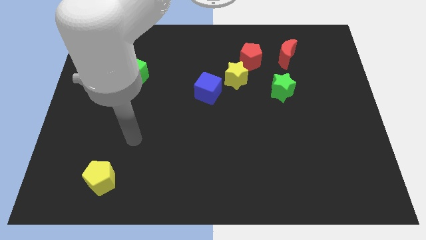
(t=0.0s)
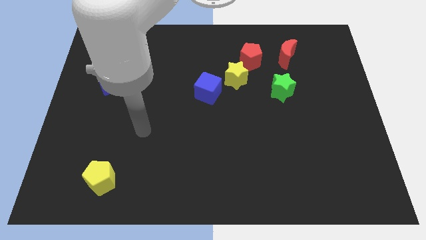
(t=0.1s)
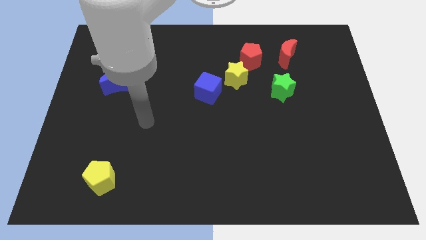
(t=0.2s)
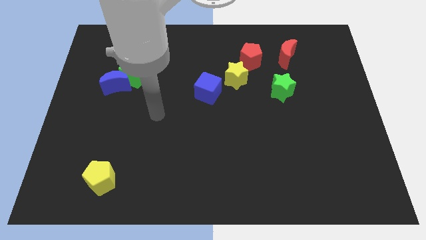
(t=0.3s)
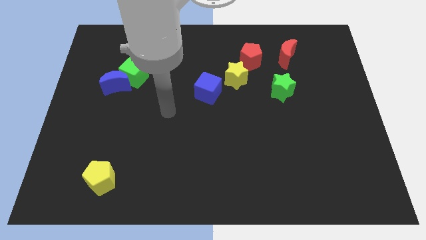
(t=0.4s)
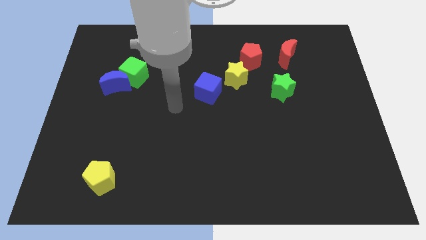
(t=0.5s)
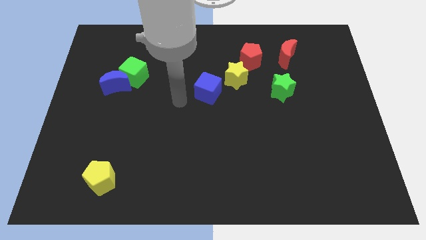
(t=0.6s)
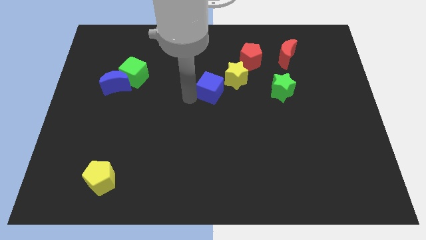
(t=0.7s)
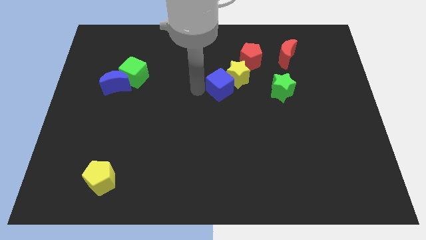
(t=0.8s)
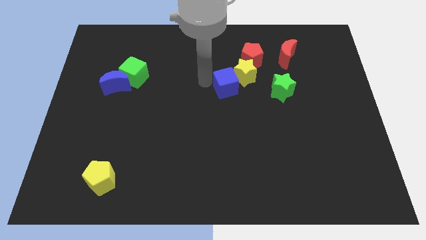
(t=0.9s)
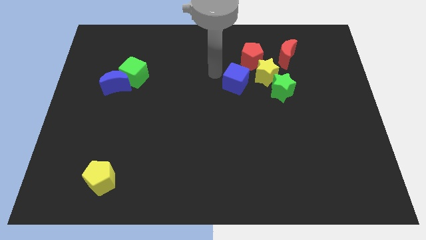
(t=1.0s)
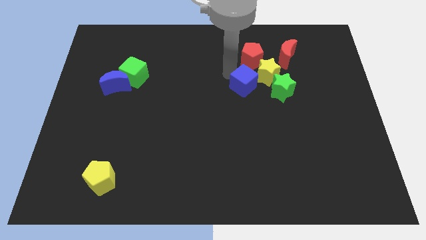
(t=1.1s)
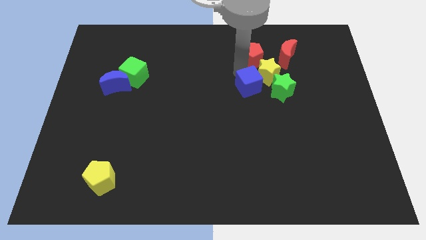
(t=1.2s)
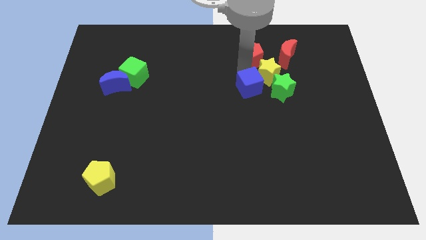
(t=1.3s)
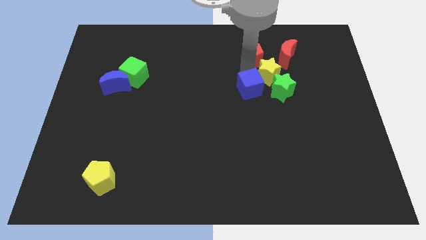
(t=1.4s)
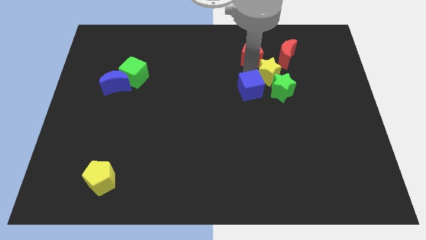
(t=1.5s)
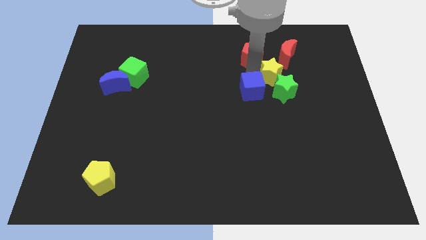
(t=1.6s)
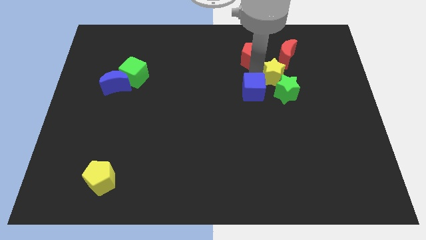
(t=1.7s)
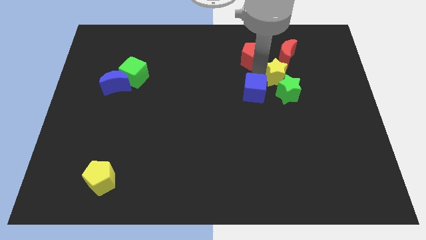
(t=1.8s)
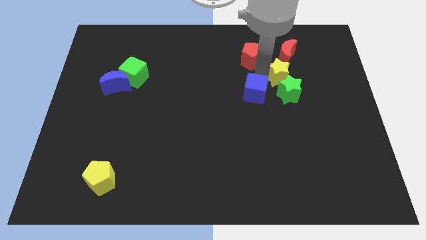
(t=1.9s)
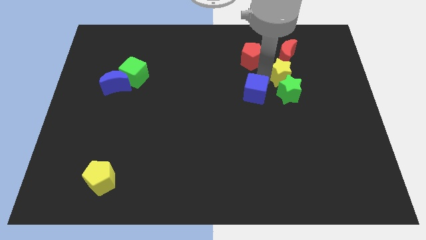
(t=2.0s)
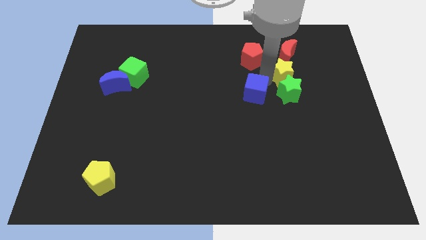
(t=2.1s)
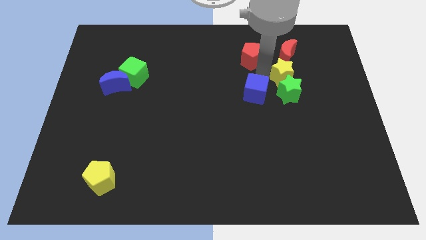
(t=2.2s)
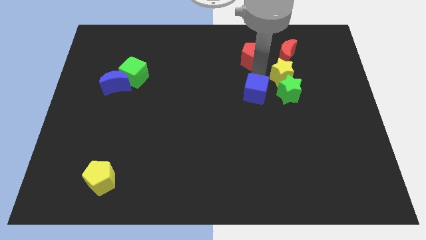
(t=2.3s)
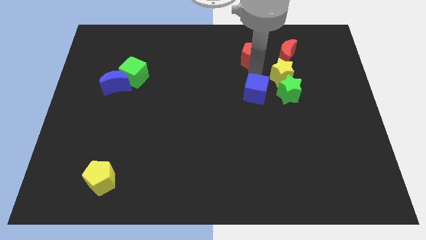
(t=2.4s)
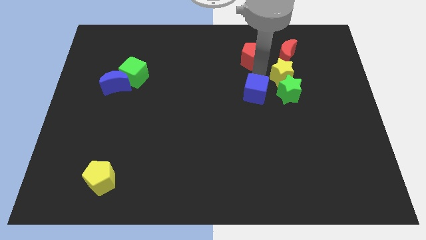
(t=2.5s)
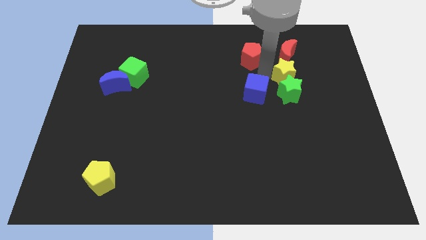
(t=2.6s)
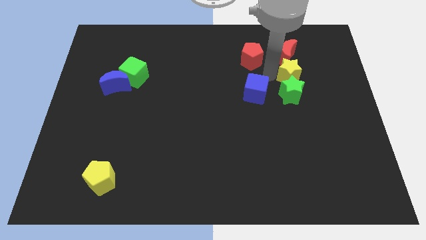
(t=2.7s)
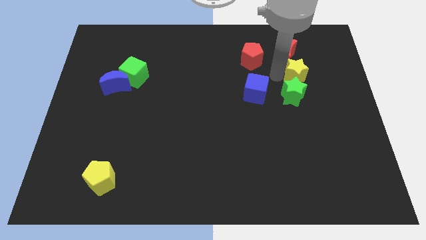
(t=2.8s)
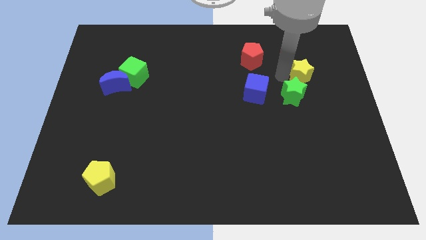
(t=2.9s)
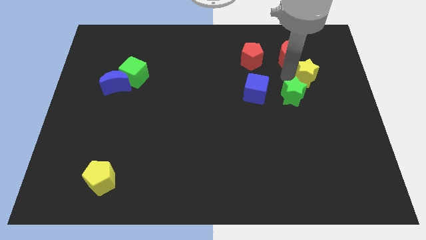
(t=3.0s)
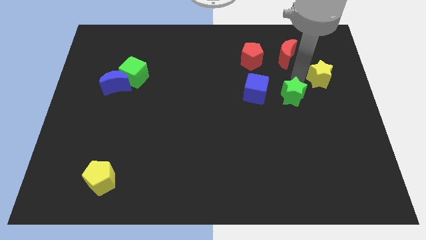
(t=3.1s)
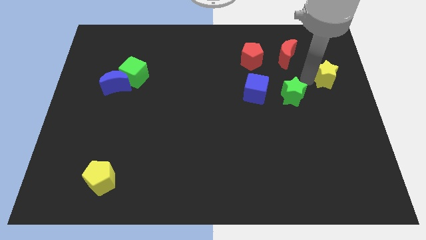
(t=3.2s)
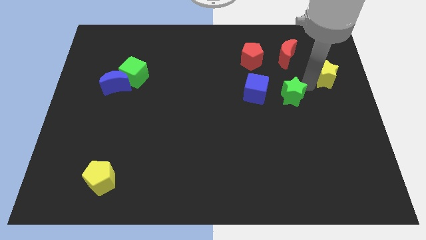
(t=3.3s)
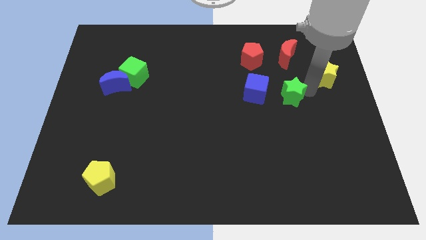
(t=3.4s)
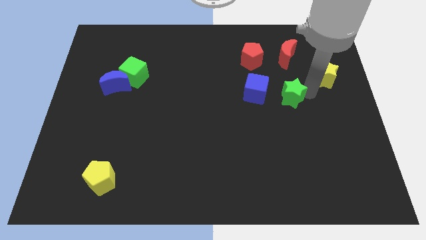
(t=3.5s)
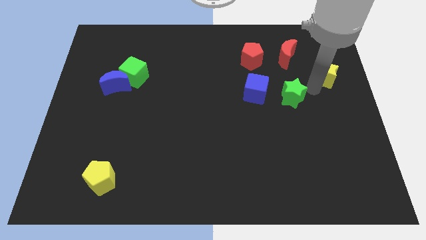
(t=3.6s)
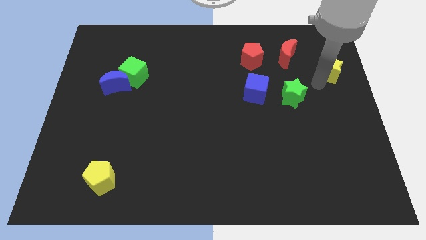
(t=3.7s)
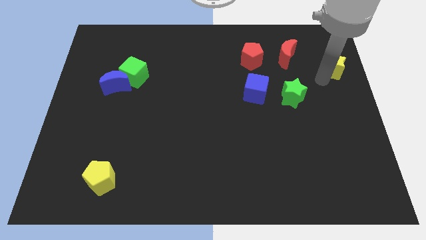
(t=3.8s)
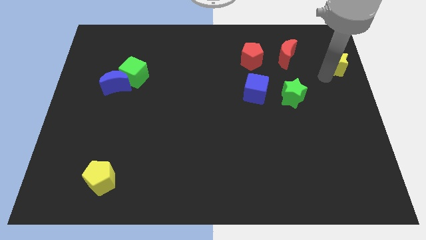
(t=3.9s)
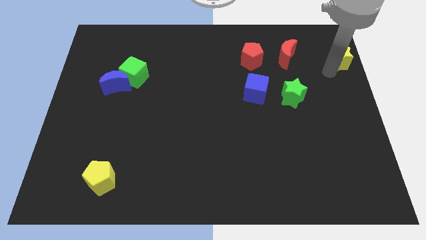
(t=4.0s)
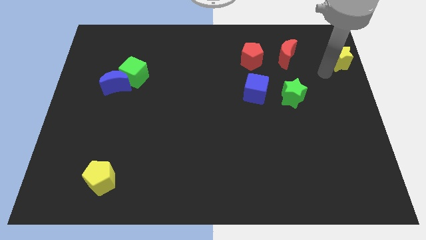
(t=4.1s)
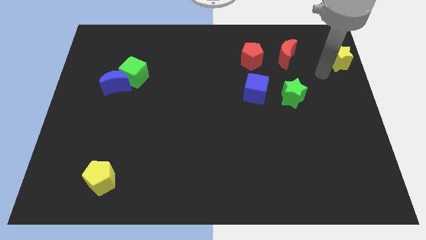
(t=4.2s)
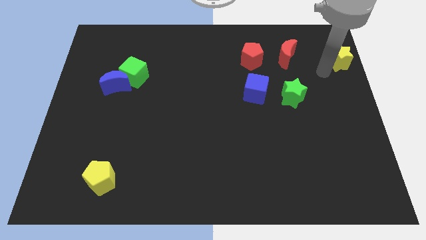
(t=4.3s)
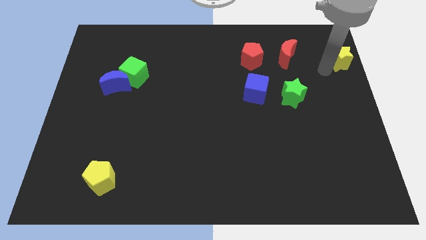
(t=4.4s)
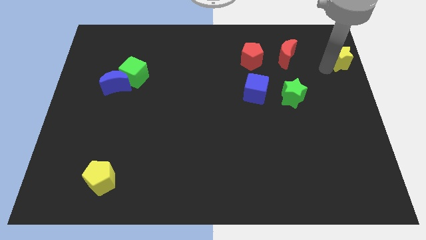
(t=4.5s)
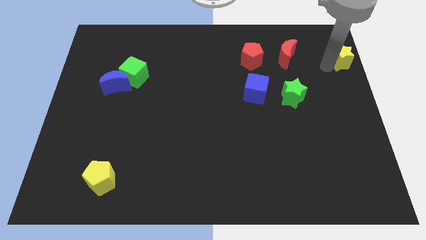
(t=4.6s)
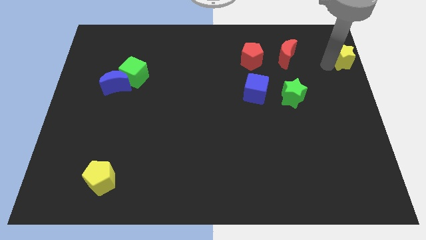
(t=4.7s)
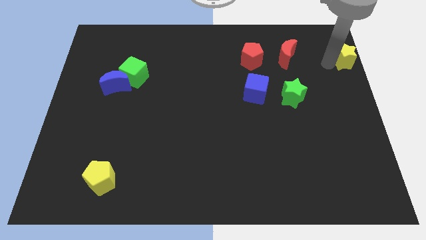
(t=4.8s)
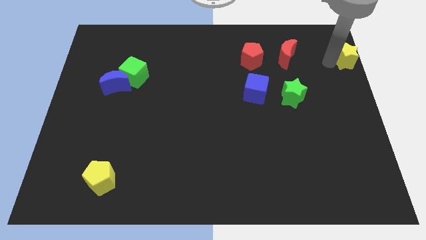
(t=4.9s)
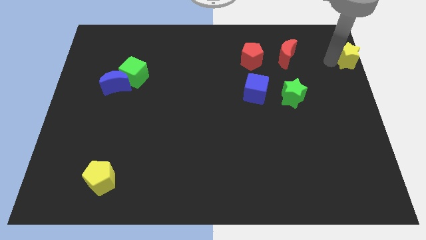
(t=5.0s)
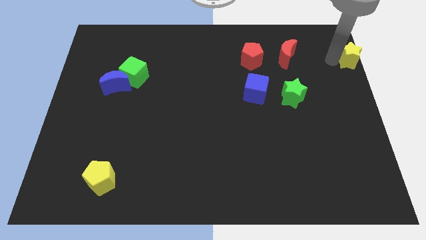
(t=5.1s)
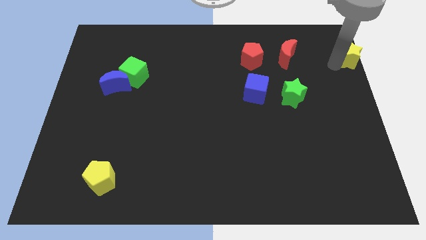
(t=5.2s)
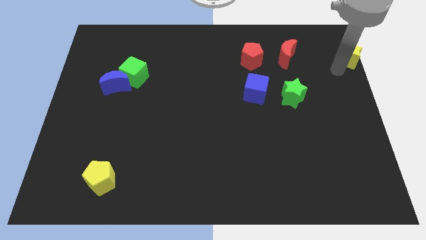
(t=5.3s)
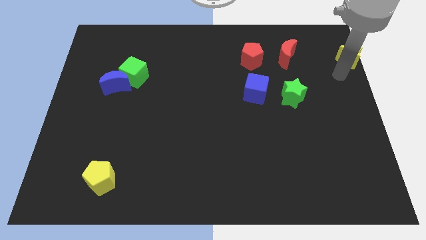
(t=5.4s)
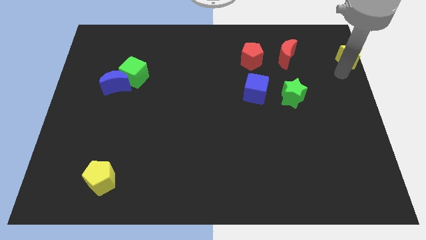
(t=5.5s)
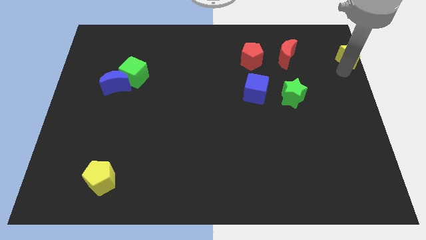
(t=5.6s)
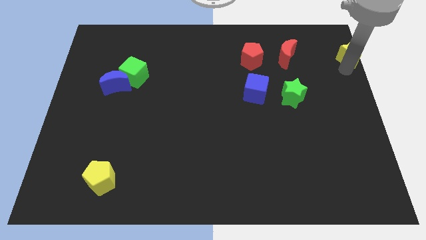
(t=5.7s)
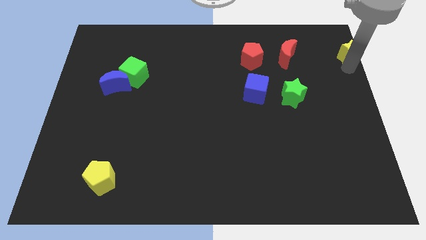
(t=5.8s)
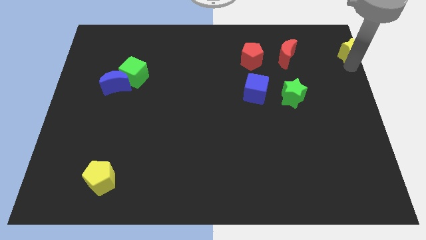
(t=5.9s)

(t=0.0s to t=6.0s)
push the yellow star to the top right corner

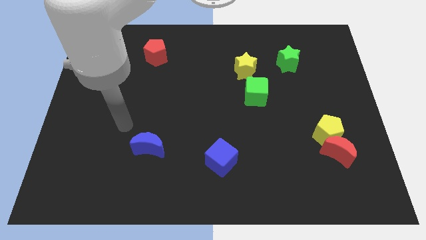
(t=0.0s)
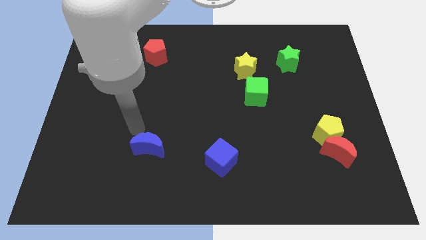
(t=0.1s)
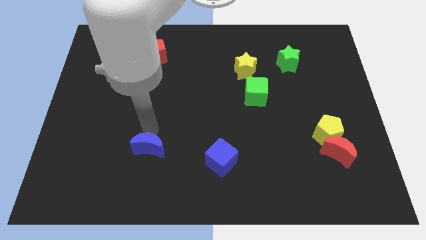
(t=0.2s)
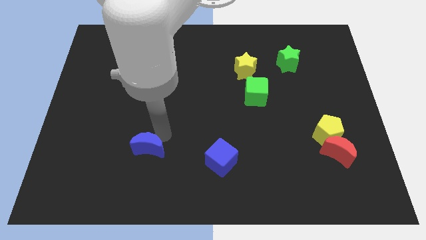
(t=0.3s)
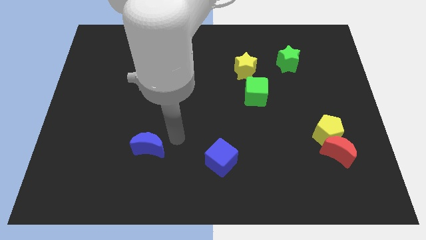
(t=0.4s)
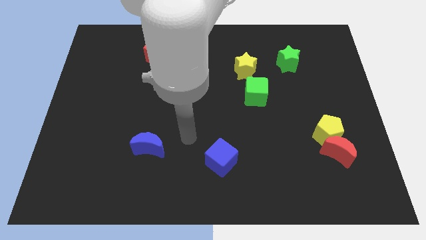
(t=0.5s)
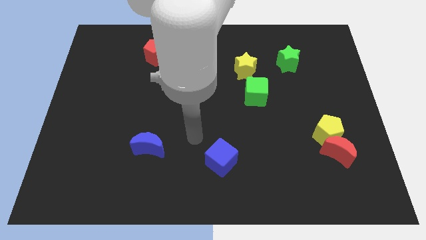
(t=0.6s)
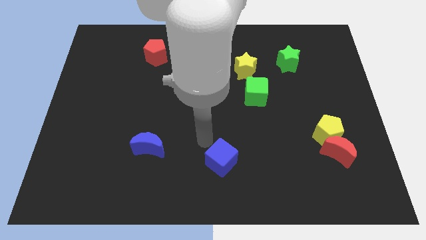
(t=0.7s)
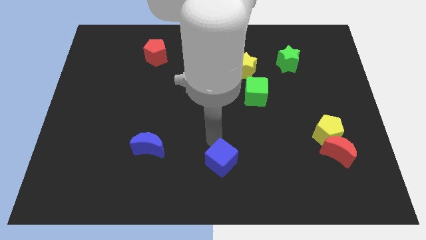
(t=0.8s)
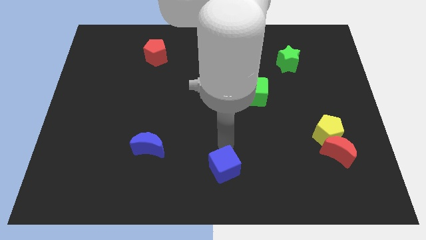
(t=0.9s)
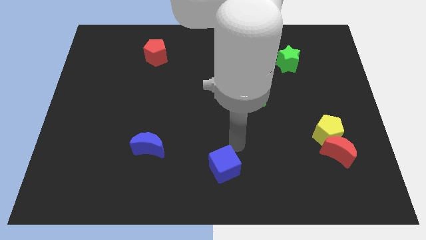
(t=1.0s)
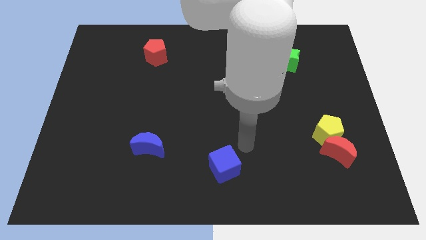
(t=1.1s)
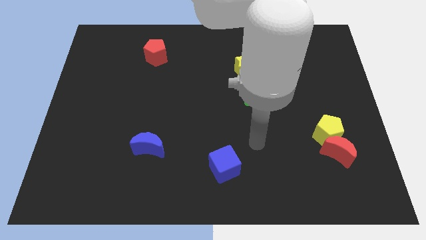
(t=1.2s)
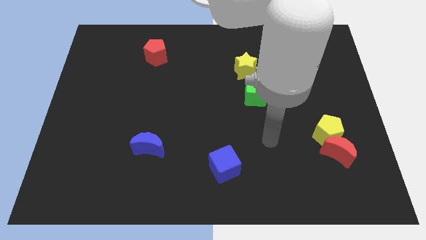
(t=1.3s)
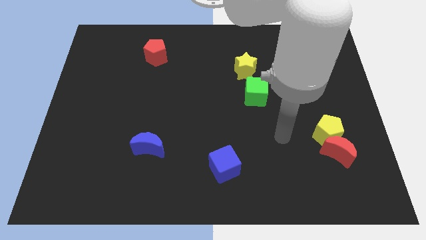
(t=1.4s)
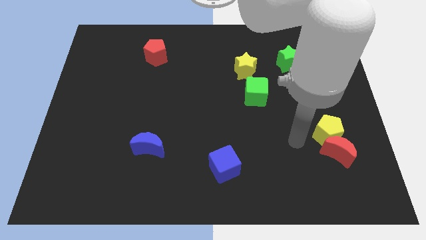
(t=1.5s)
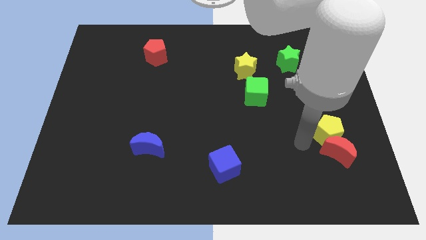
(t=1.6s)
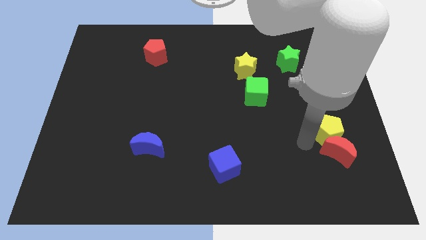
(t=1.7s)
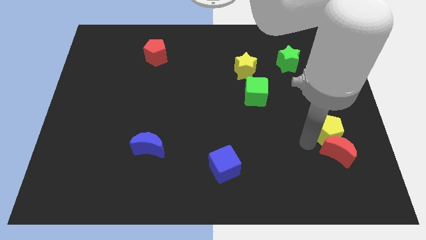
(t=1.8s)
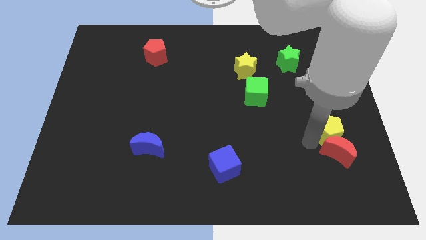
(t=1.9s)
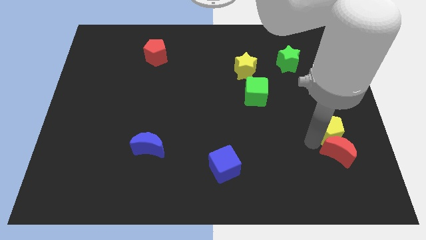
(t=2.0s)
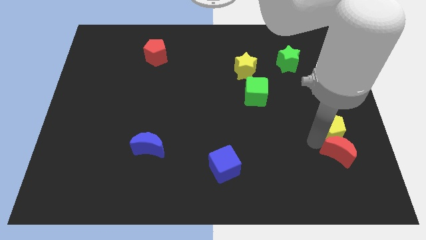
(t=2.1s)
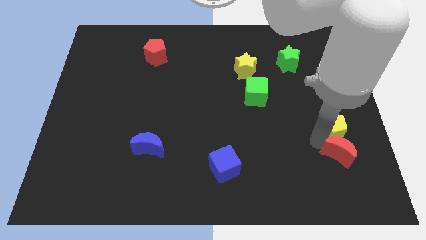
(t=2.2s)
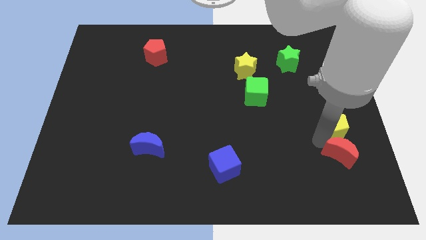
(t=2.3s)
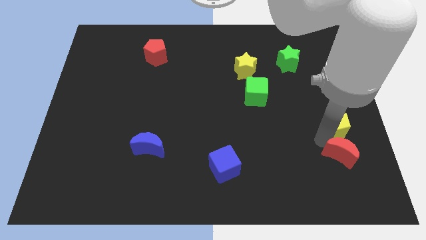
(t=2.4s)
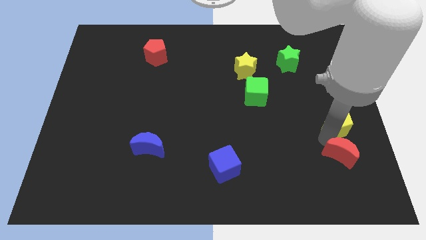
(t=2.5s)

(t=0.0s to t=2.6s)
put the yellow pentagon to the center right
